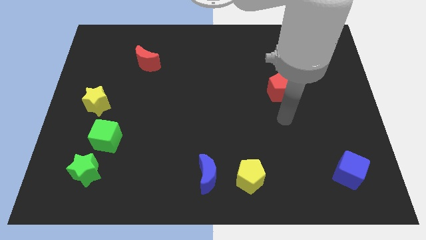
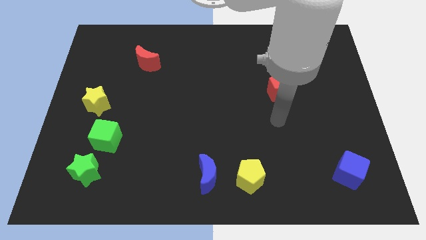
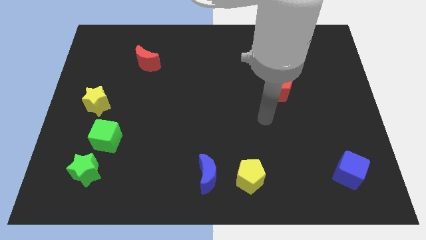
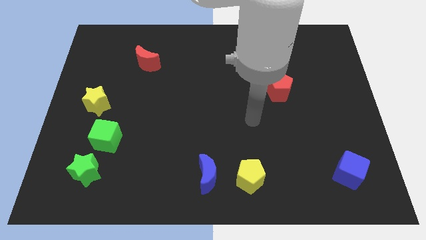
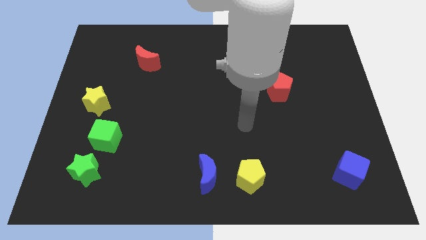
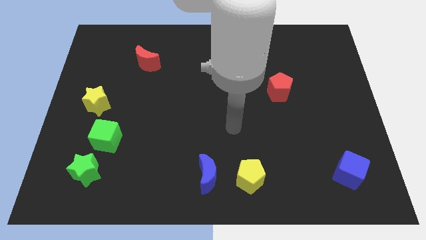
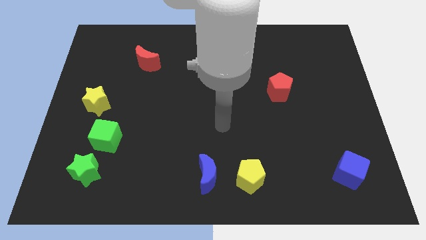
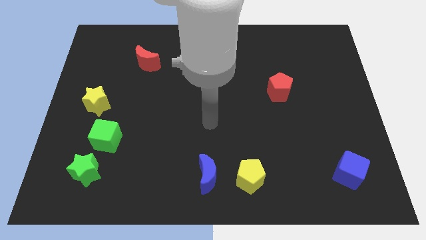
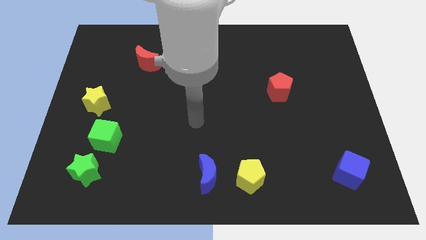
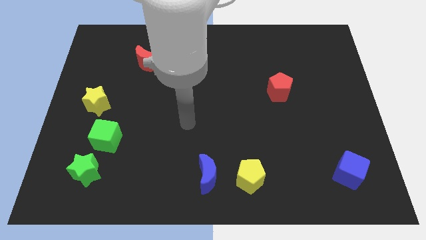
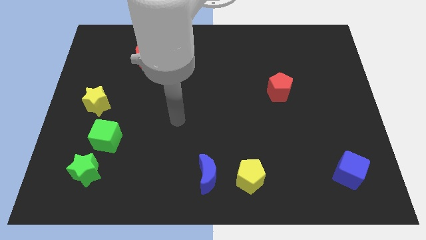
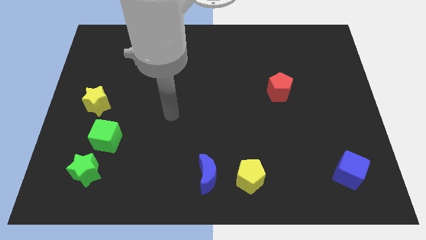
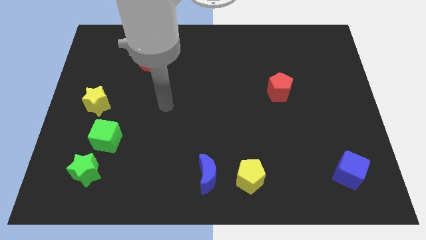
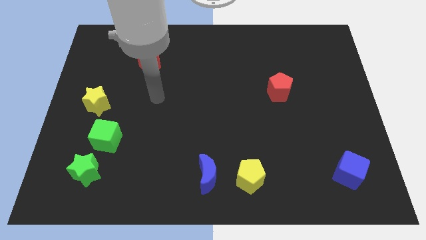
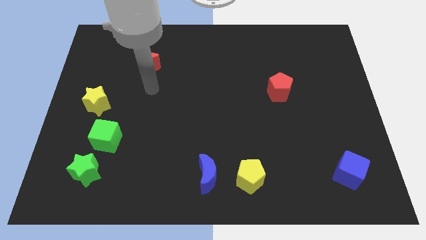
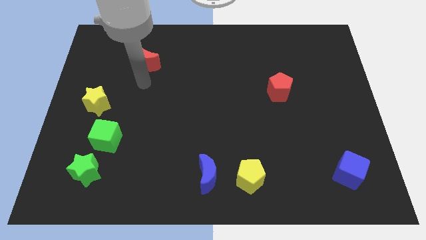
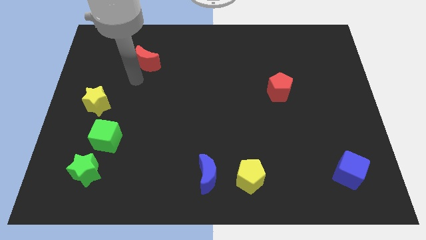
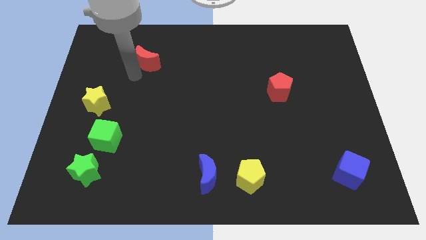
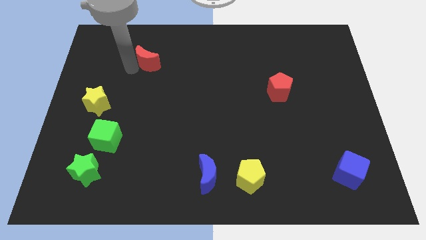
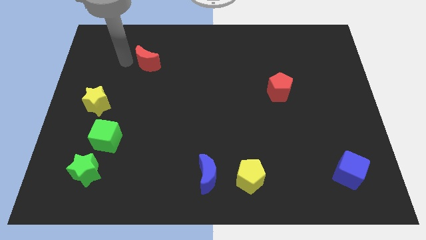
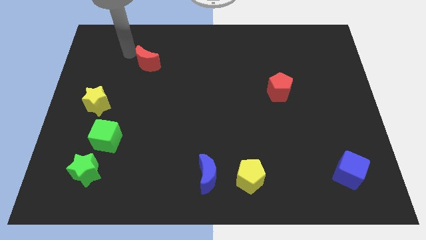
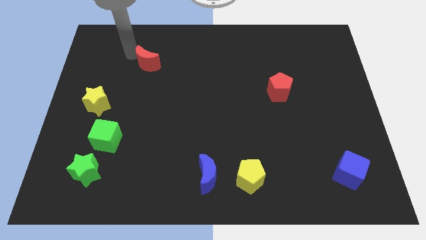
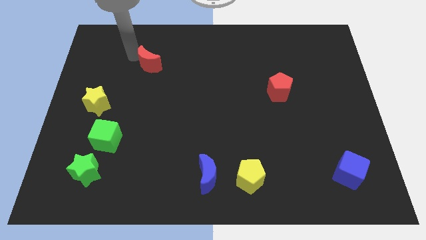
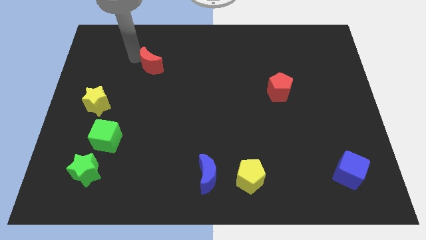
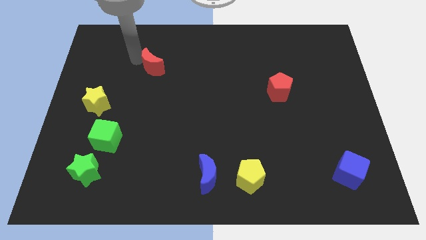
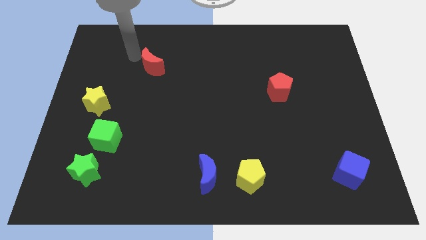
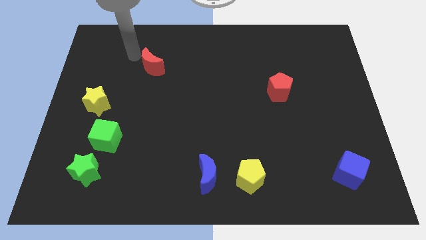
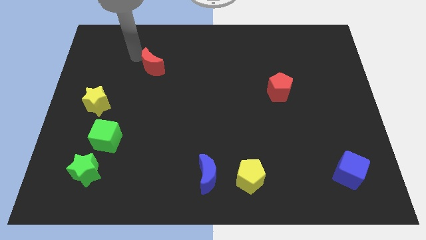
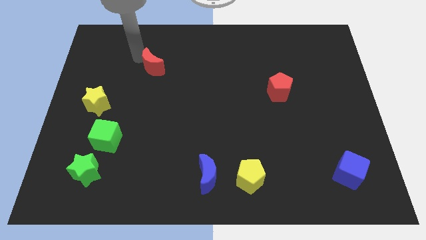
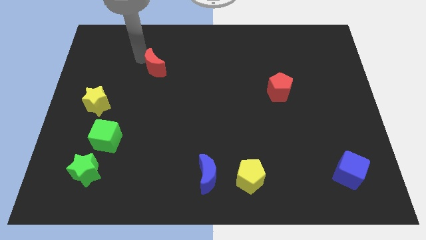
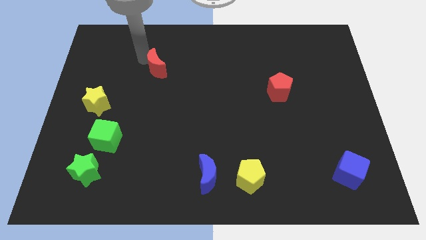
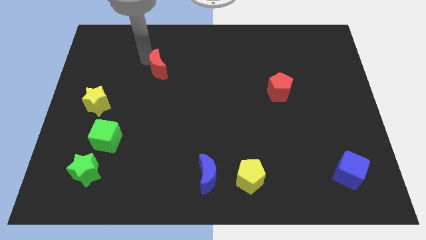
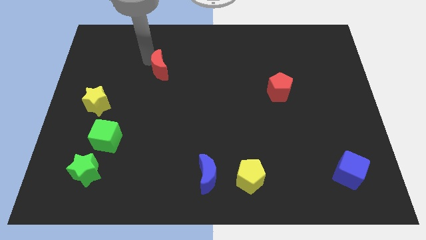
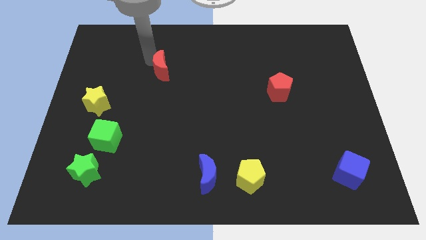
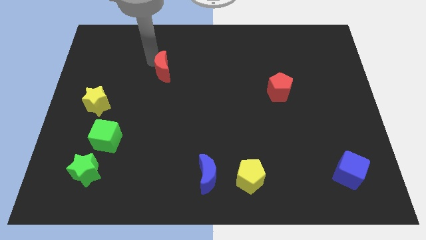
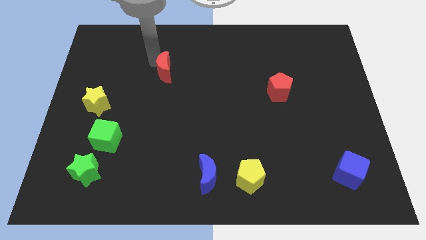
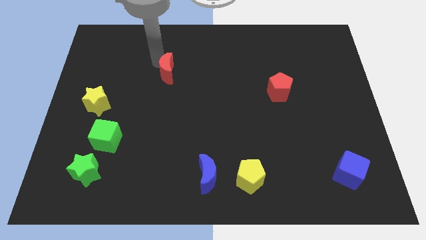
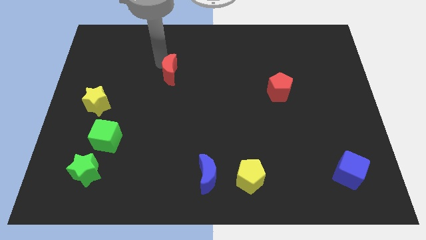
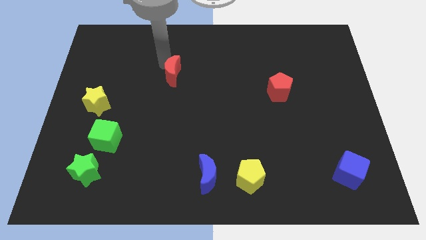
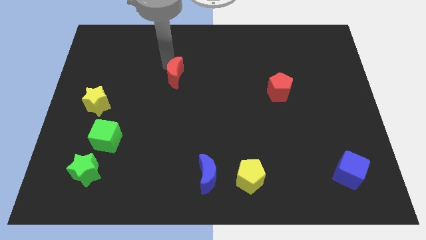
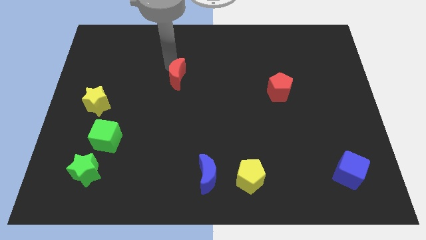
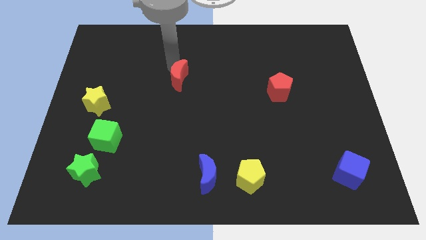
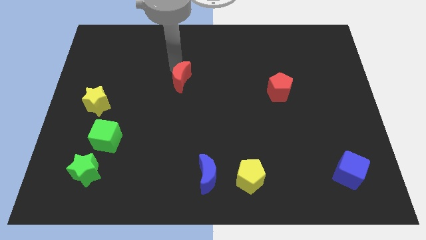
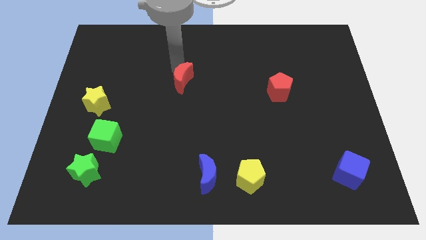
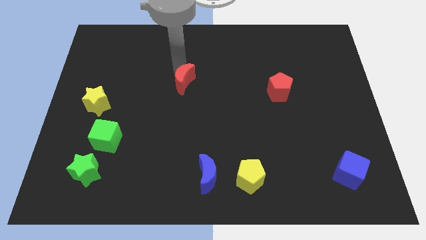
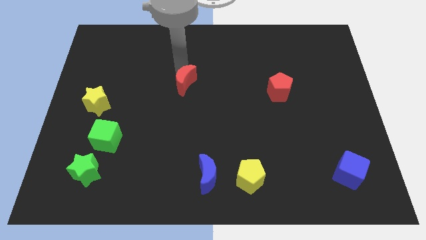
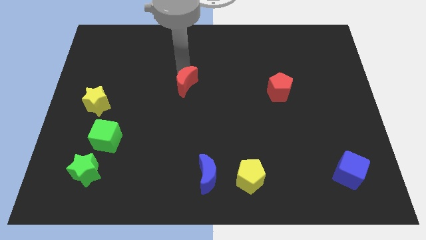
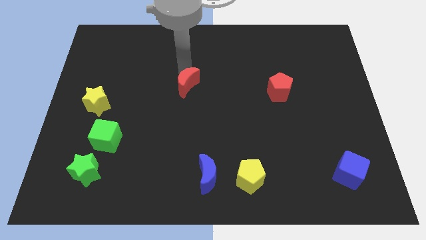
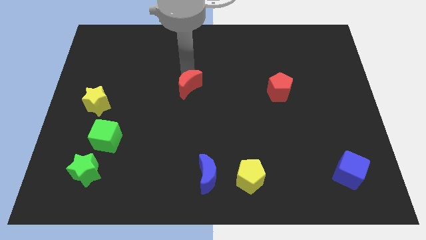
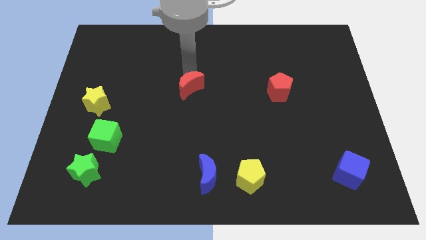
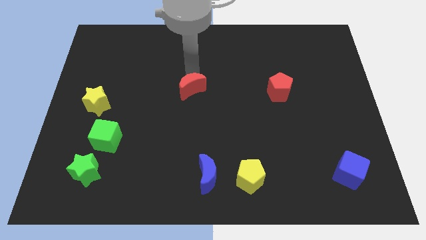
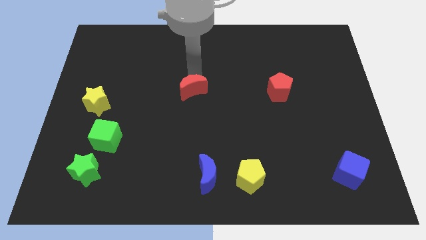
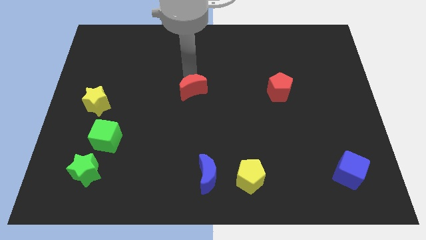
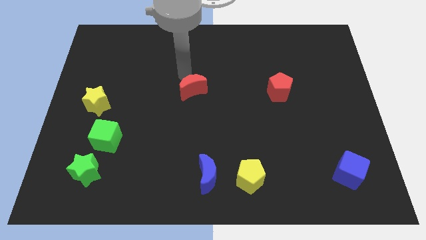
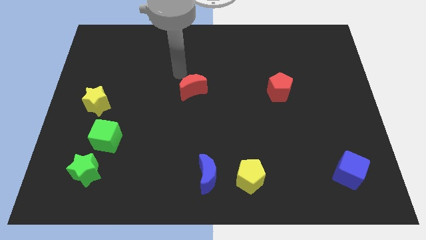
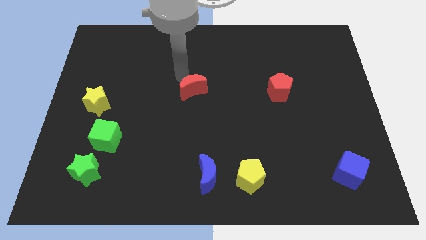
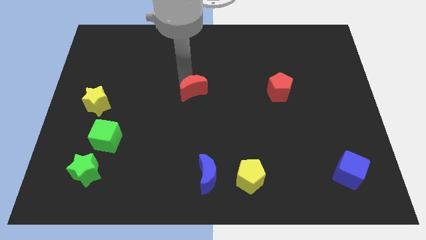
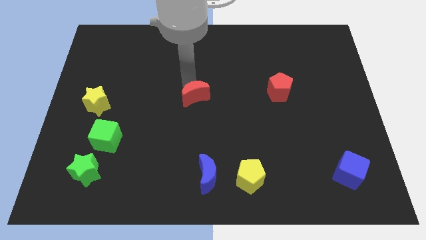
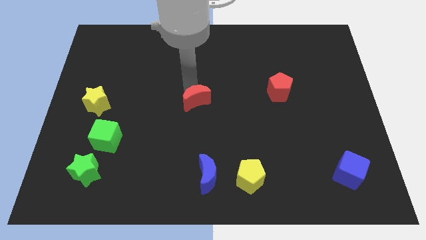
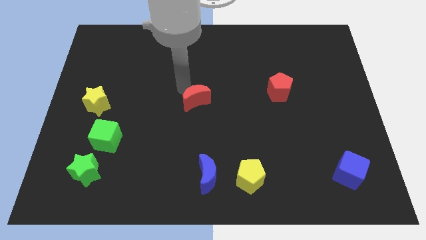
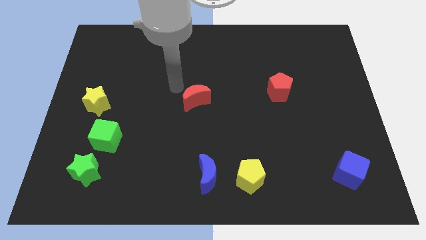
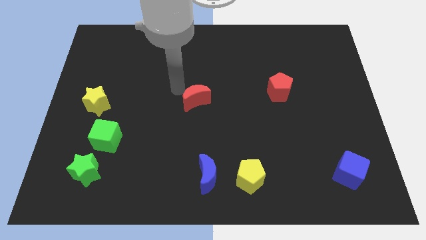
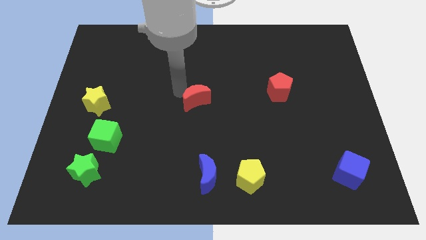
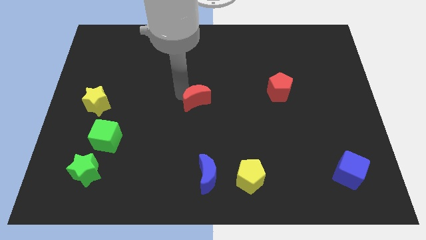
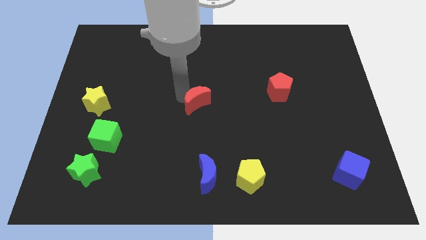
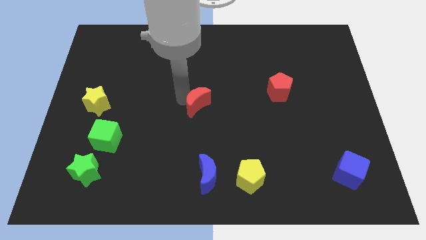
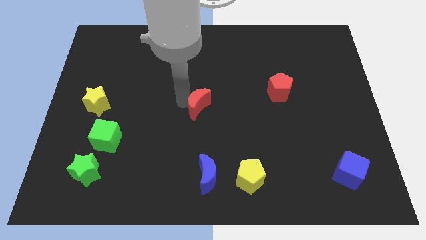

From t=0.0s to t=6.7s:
move the red moon diagonally down and right

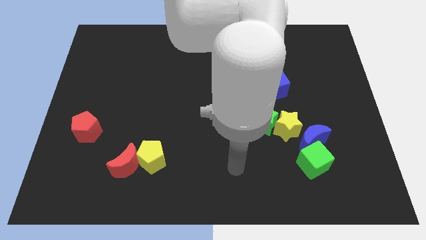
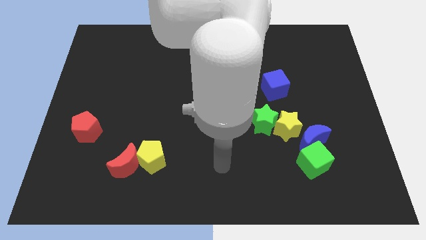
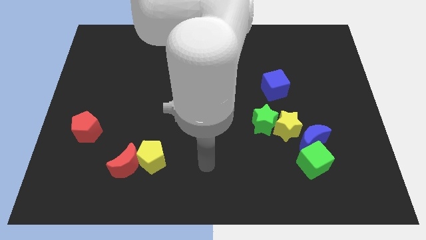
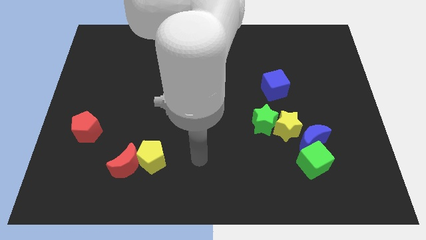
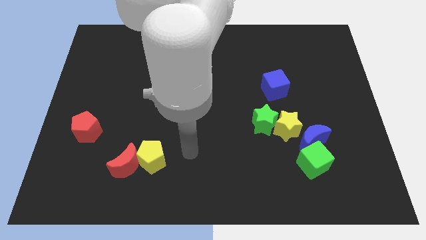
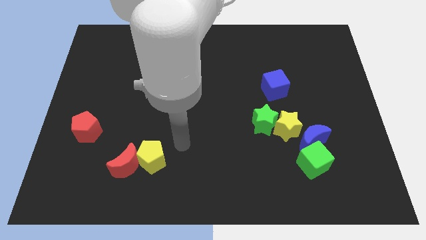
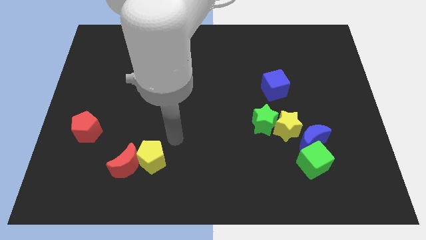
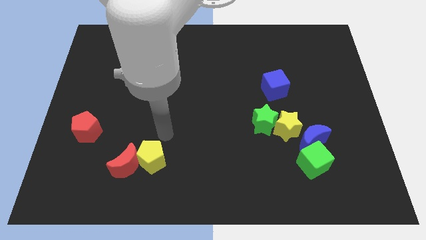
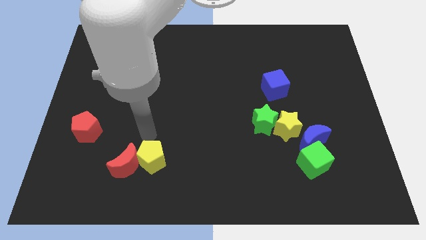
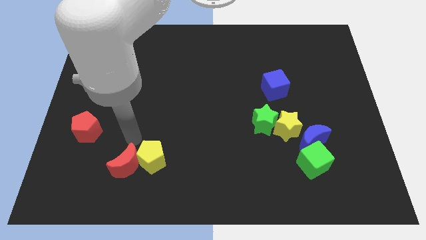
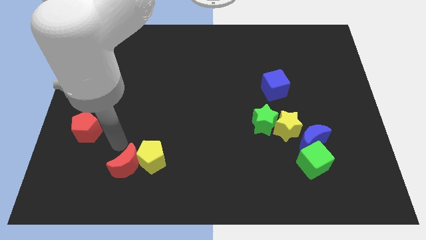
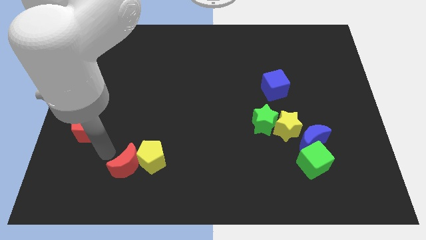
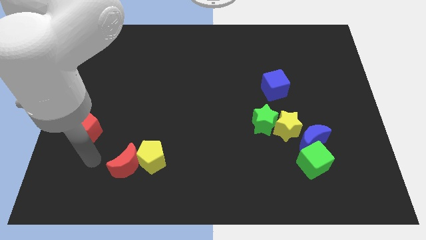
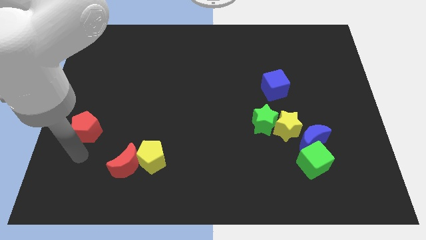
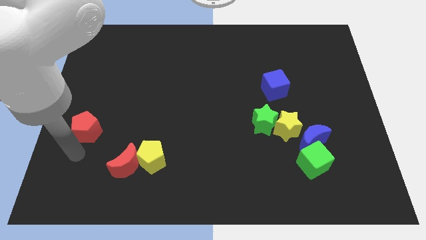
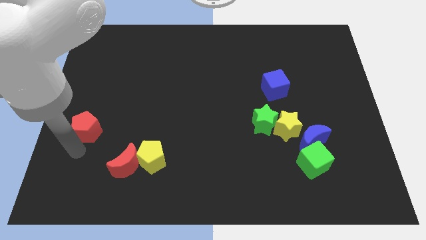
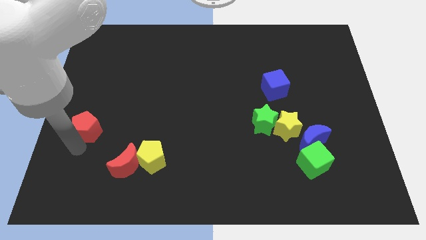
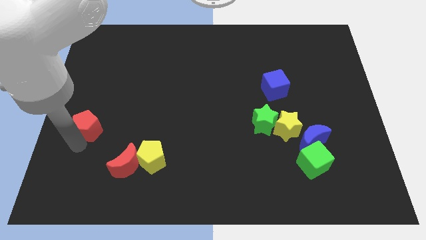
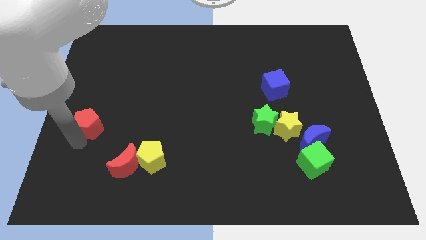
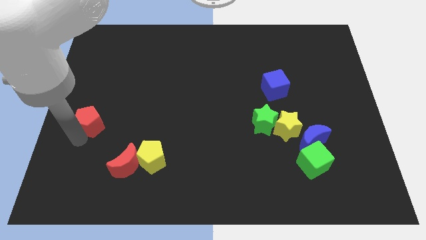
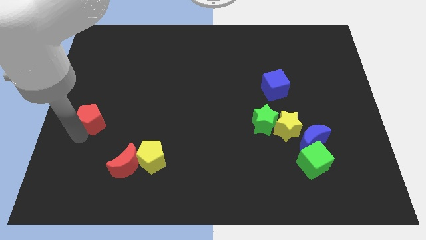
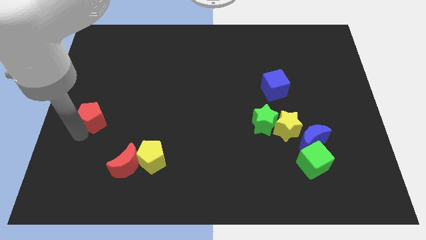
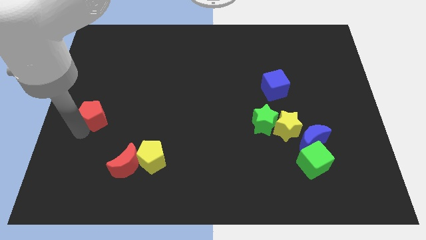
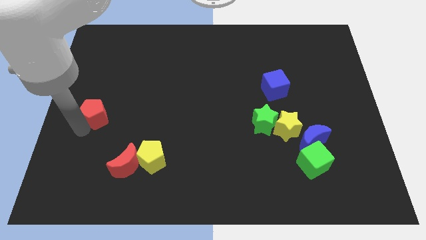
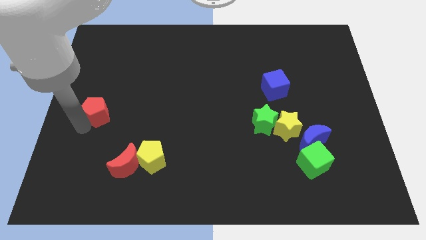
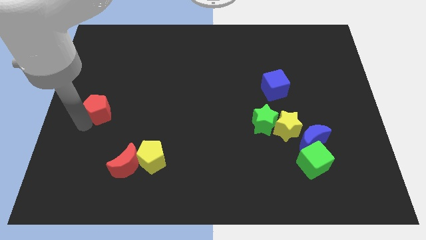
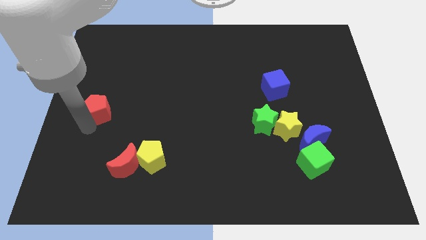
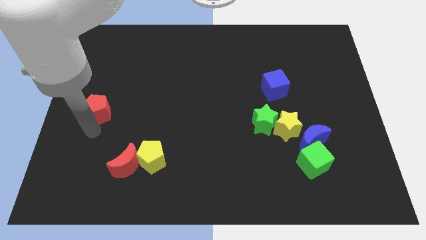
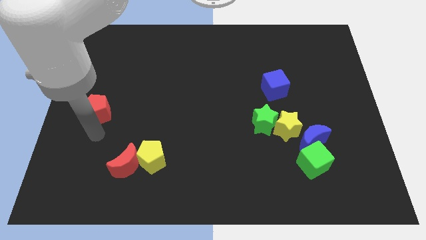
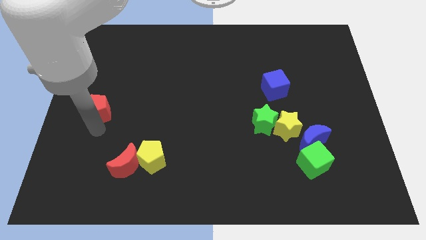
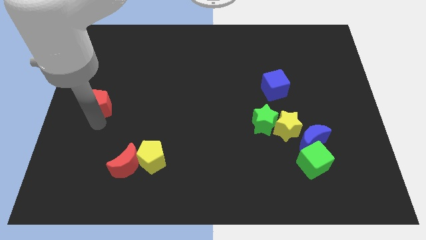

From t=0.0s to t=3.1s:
slide the red pentagon upwards a little bit
